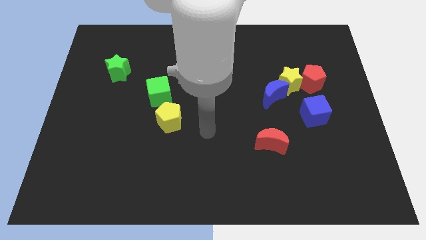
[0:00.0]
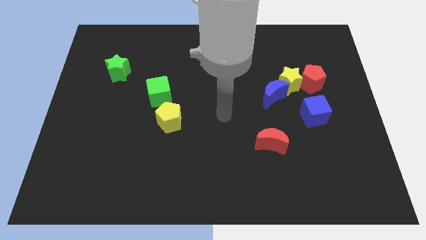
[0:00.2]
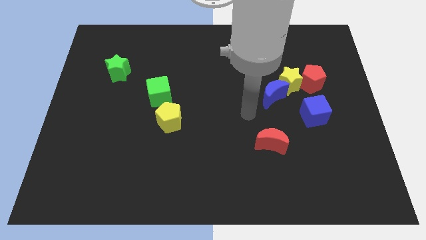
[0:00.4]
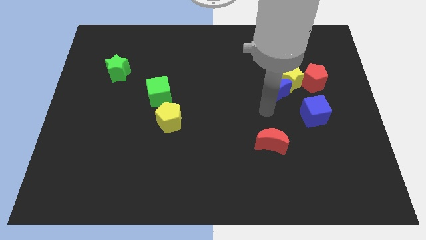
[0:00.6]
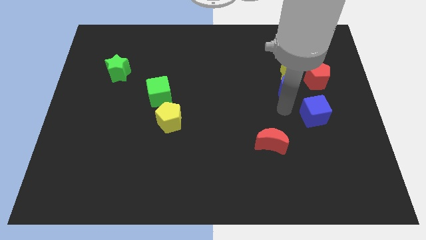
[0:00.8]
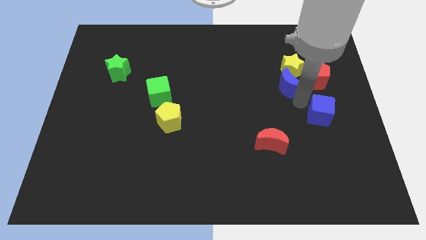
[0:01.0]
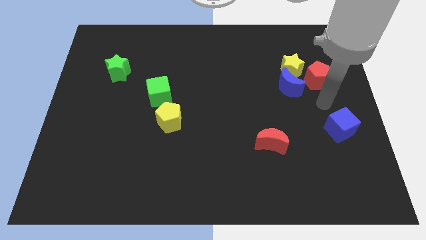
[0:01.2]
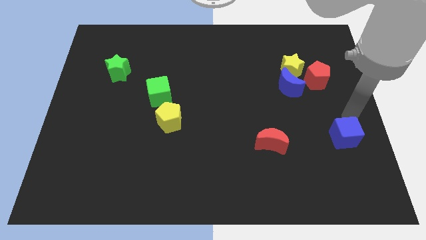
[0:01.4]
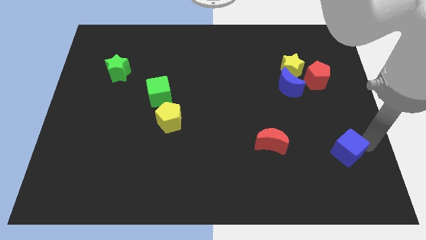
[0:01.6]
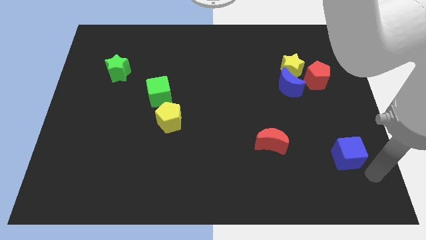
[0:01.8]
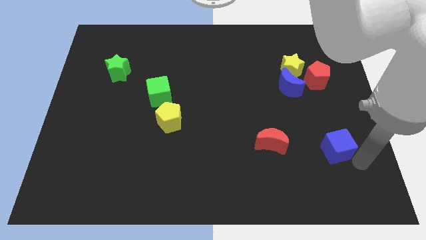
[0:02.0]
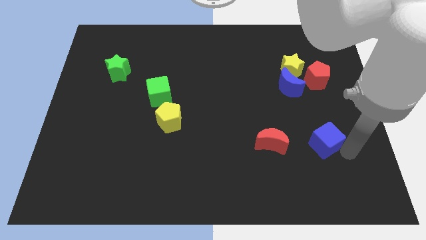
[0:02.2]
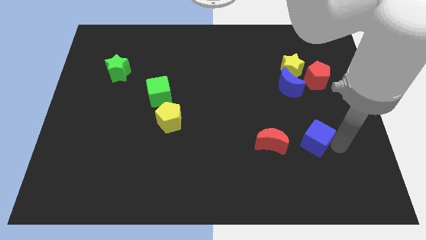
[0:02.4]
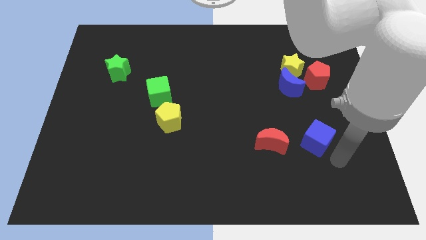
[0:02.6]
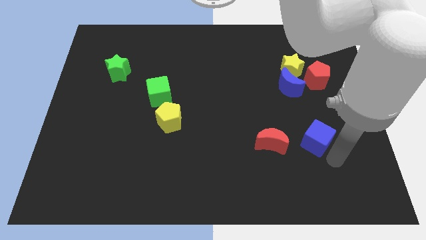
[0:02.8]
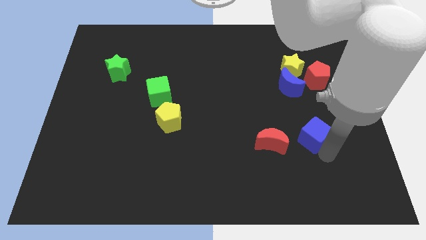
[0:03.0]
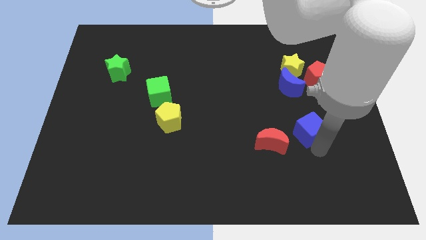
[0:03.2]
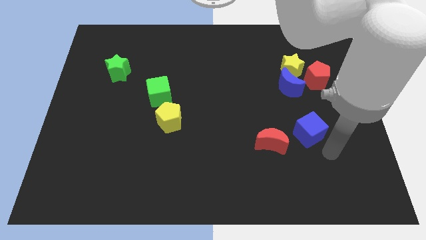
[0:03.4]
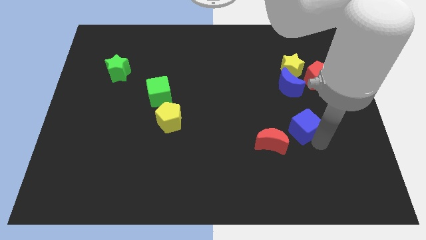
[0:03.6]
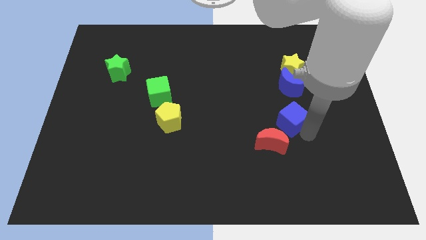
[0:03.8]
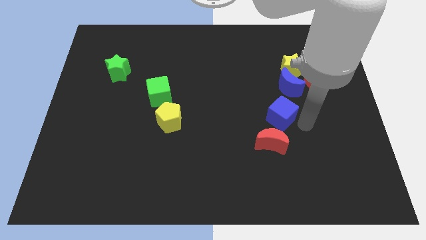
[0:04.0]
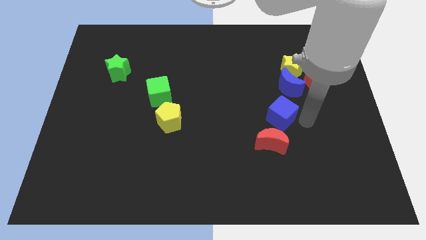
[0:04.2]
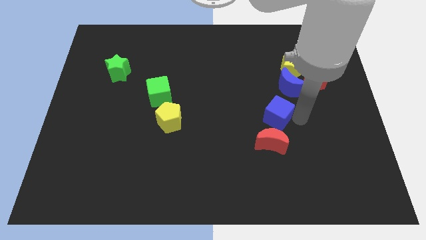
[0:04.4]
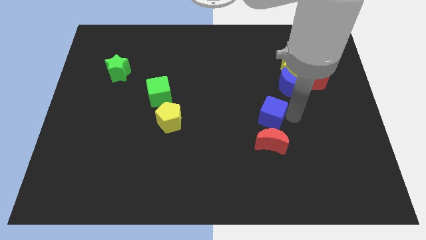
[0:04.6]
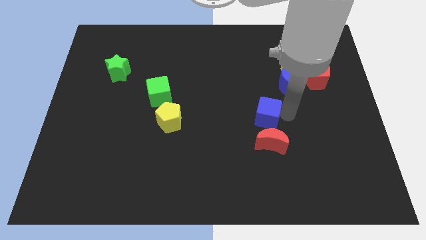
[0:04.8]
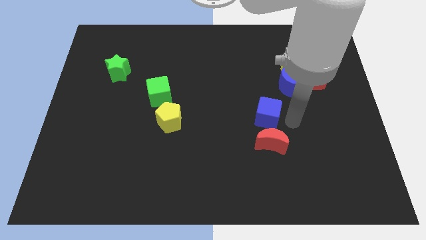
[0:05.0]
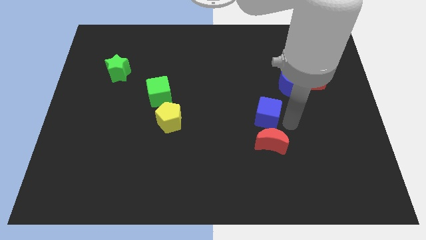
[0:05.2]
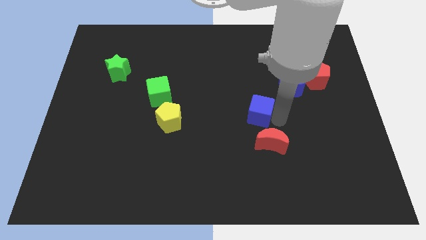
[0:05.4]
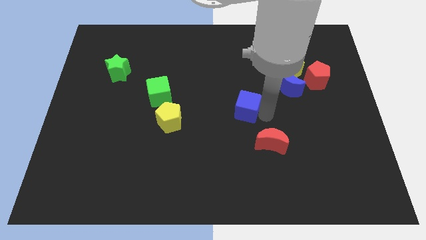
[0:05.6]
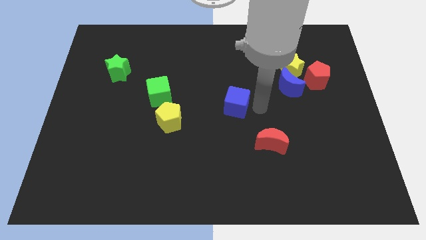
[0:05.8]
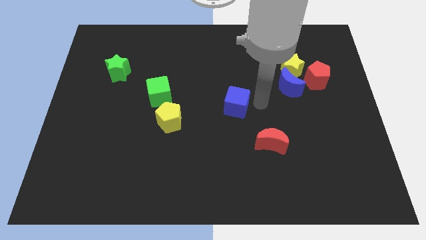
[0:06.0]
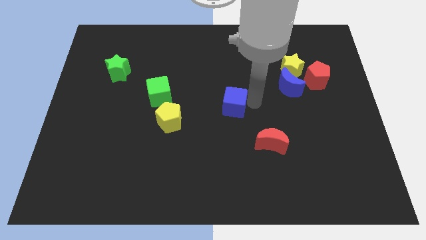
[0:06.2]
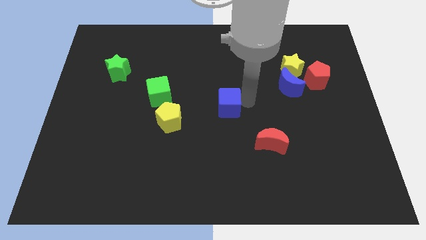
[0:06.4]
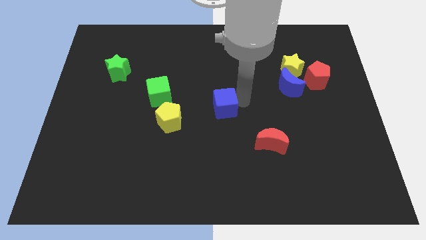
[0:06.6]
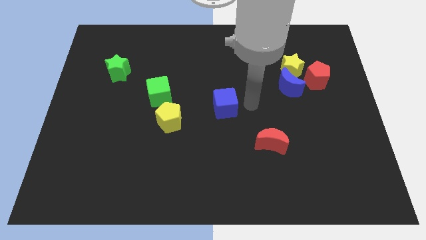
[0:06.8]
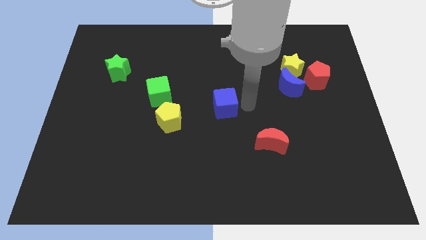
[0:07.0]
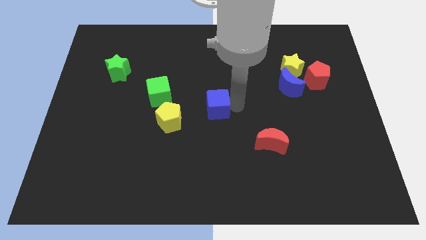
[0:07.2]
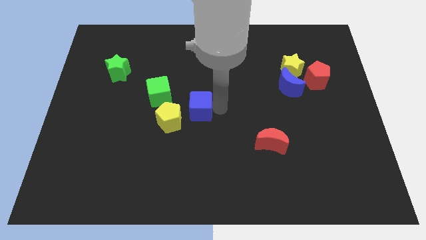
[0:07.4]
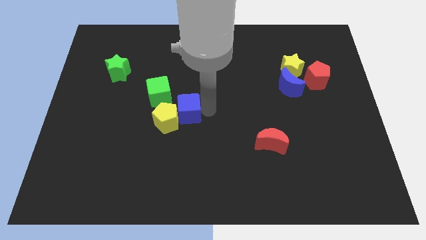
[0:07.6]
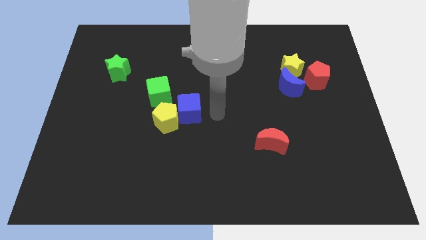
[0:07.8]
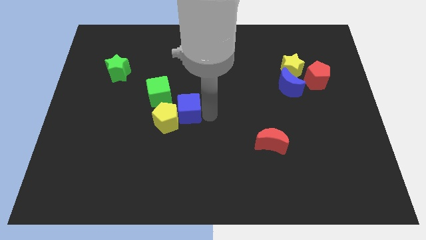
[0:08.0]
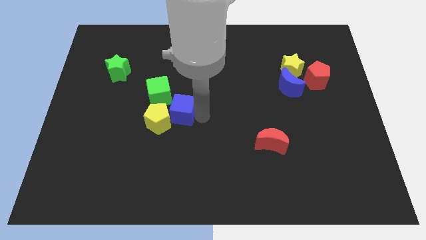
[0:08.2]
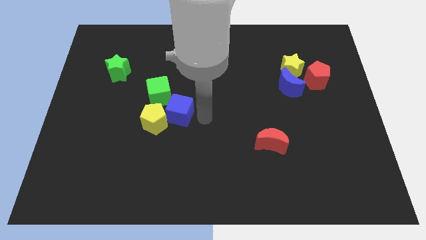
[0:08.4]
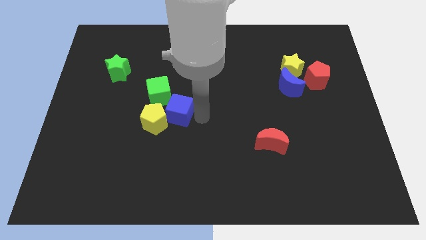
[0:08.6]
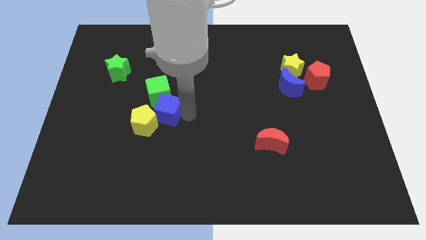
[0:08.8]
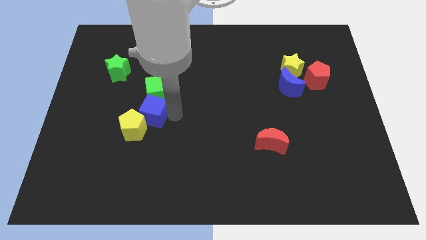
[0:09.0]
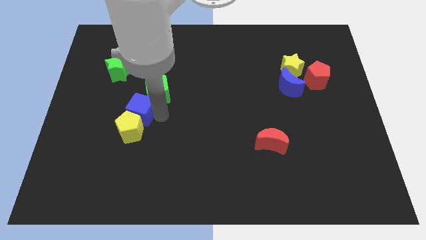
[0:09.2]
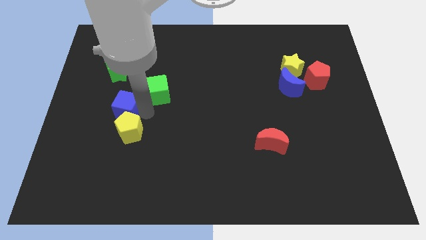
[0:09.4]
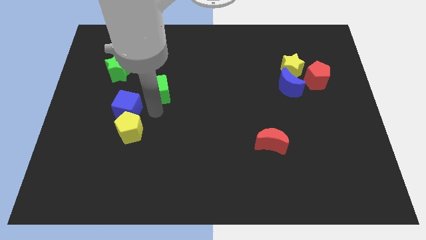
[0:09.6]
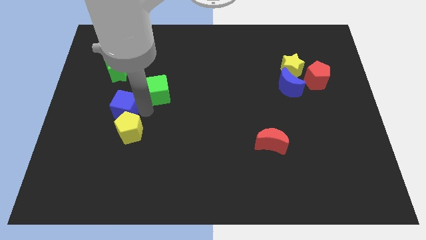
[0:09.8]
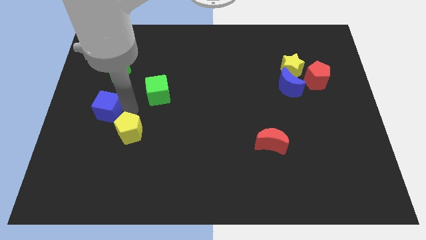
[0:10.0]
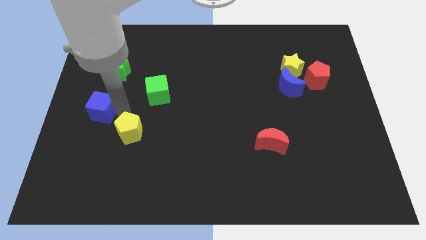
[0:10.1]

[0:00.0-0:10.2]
push the blue cube to the left side of the board

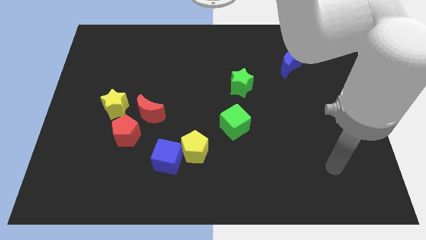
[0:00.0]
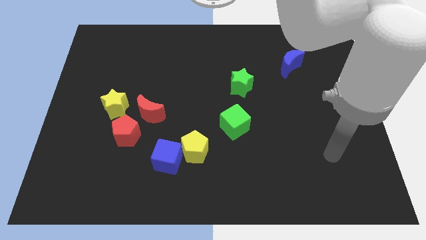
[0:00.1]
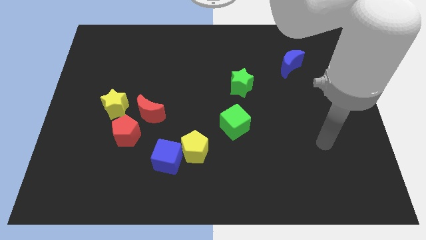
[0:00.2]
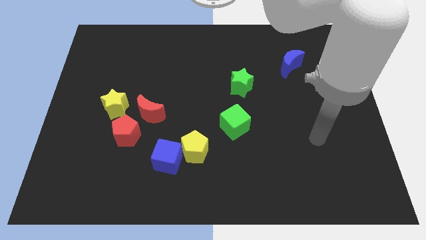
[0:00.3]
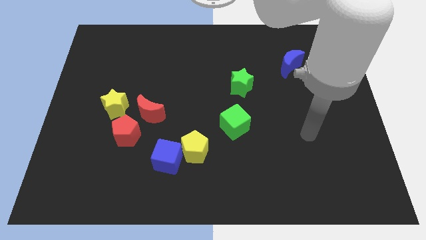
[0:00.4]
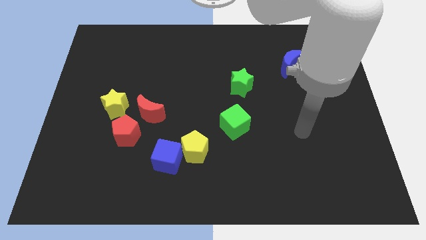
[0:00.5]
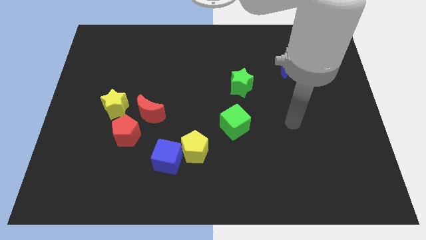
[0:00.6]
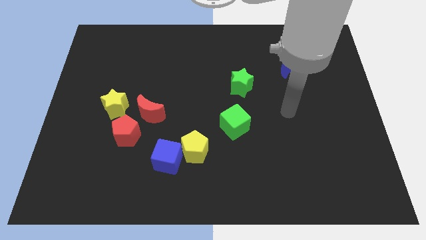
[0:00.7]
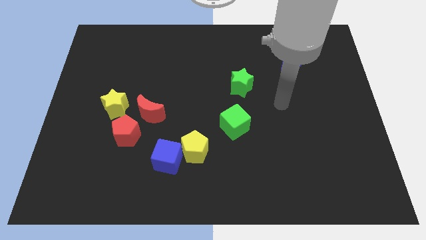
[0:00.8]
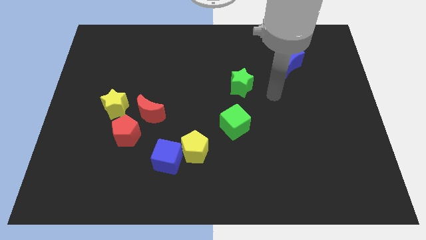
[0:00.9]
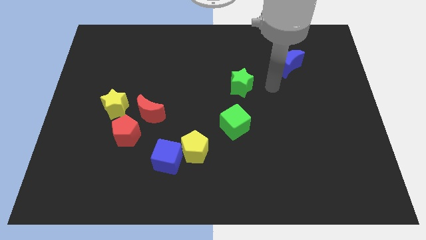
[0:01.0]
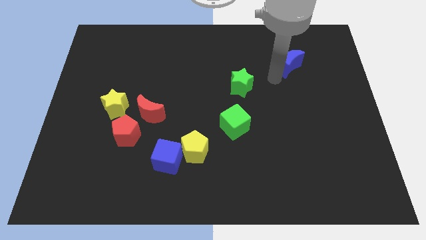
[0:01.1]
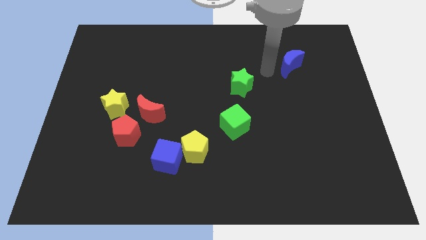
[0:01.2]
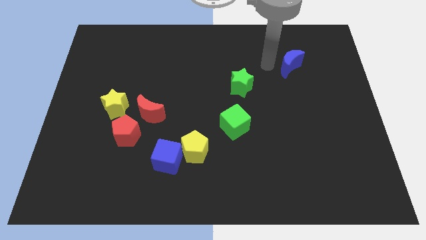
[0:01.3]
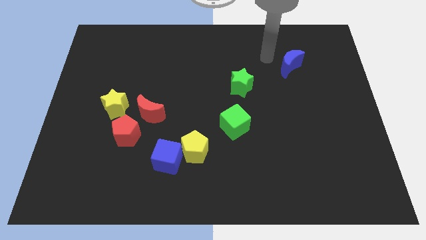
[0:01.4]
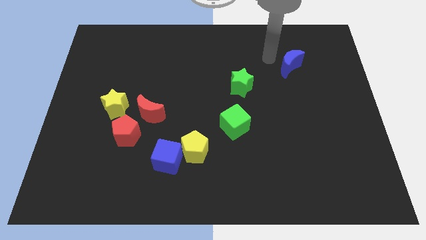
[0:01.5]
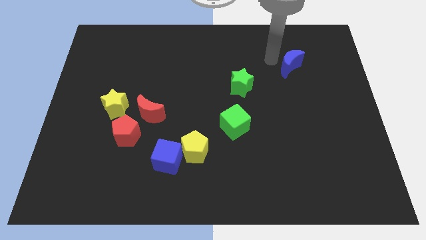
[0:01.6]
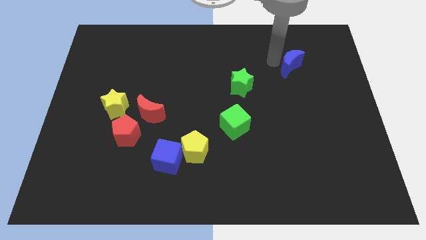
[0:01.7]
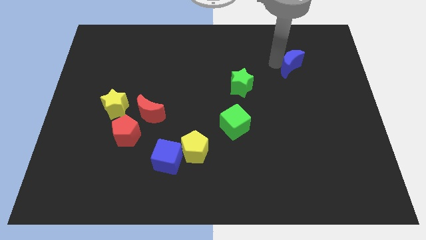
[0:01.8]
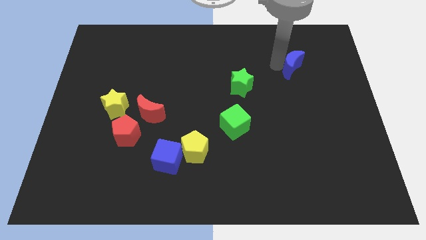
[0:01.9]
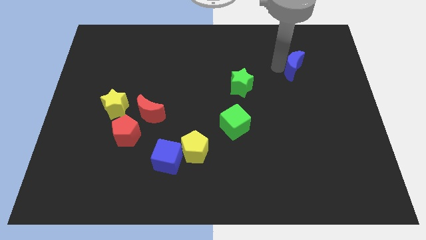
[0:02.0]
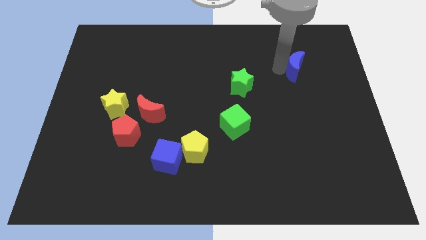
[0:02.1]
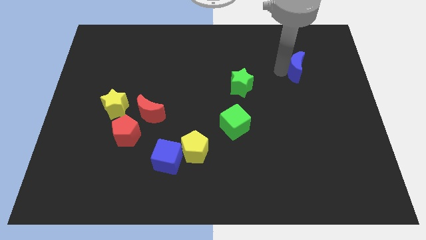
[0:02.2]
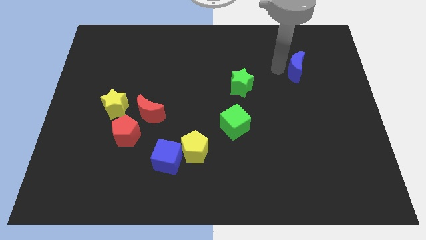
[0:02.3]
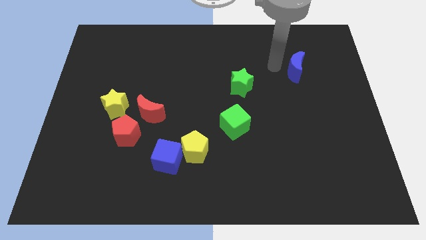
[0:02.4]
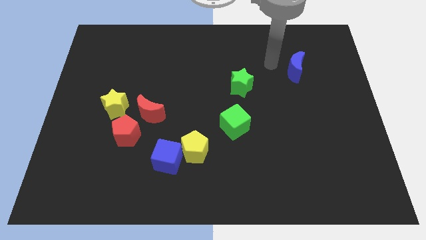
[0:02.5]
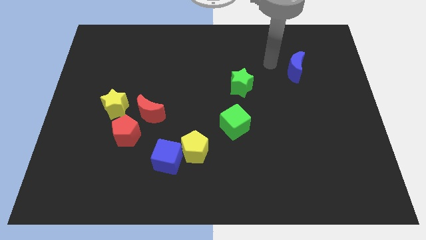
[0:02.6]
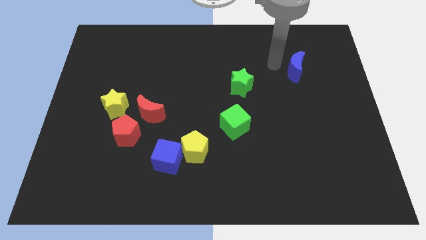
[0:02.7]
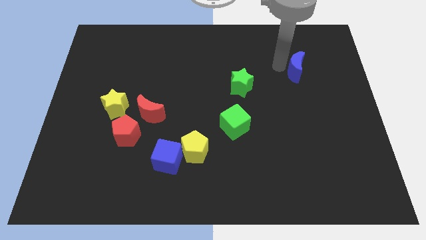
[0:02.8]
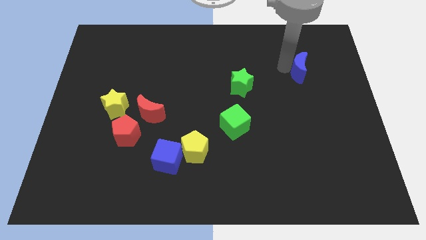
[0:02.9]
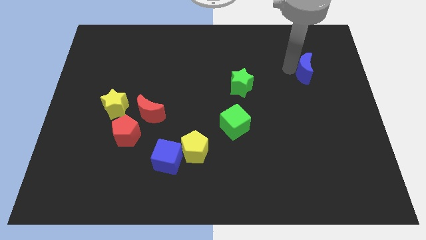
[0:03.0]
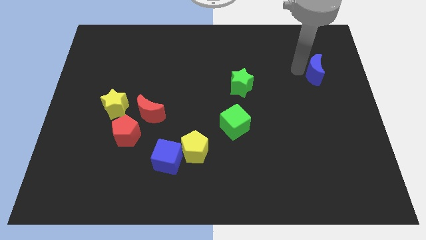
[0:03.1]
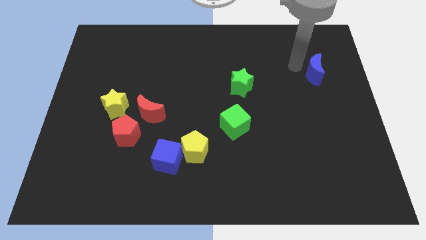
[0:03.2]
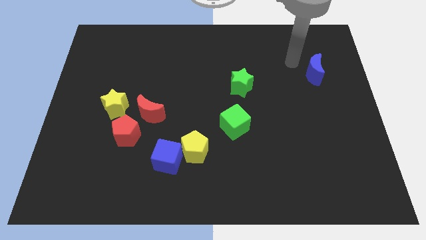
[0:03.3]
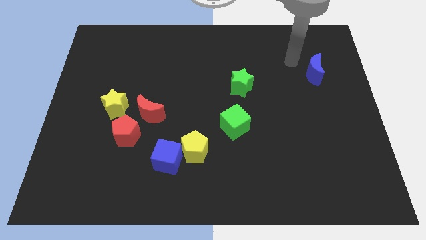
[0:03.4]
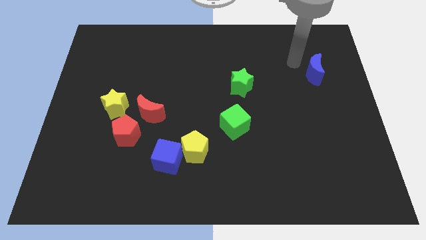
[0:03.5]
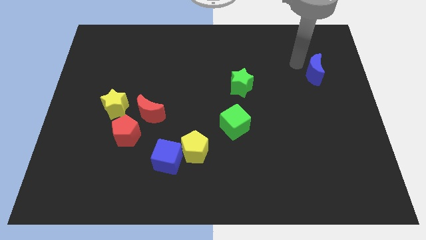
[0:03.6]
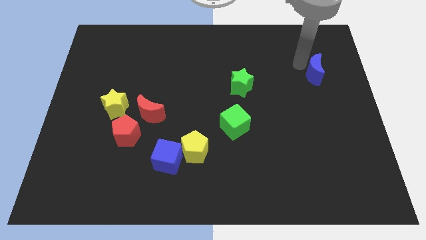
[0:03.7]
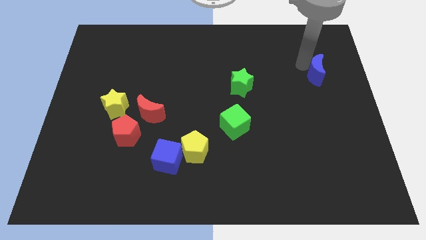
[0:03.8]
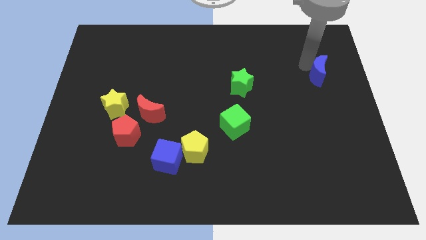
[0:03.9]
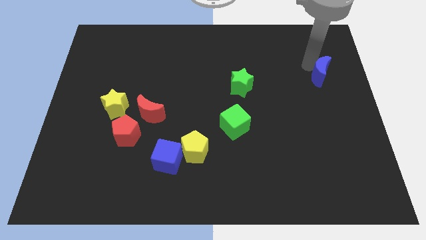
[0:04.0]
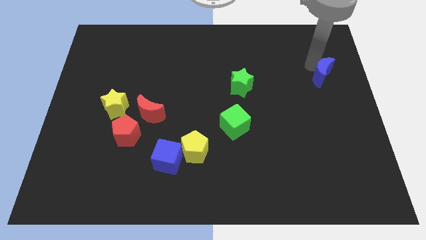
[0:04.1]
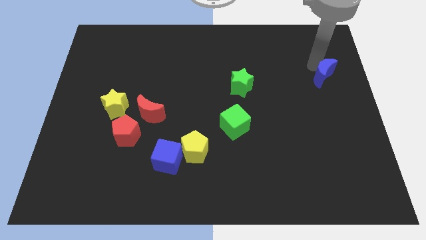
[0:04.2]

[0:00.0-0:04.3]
put the blue moon to the right side of the board
